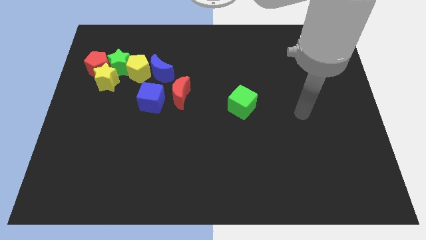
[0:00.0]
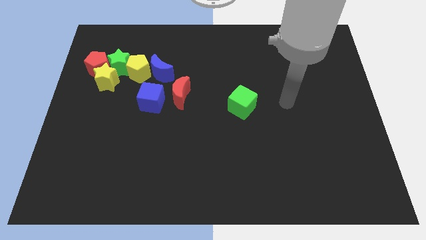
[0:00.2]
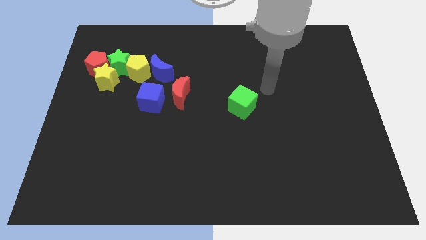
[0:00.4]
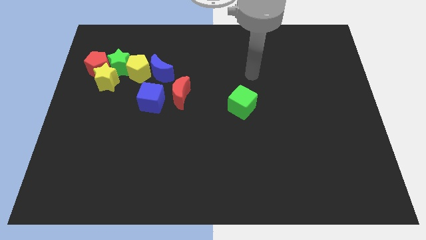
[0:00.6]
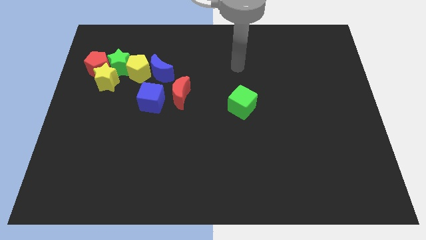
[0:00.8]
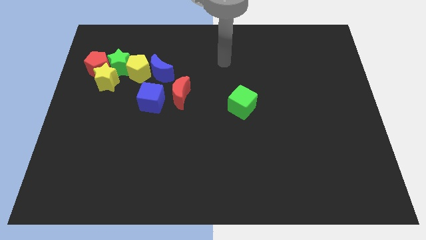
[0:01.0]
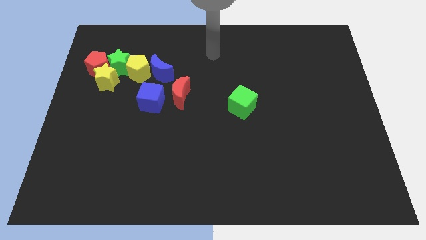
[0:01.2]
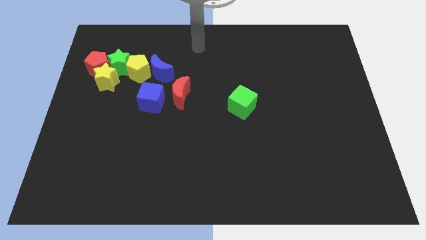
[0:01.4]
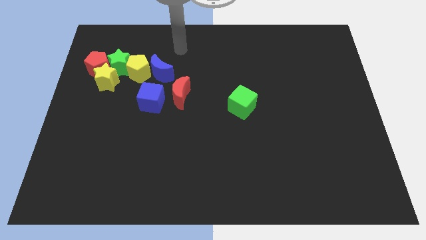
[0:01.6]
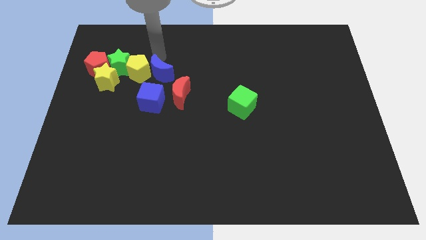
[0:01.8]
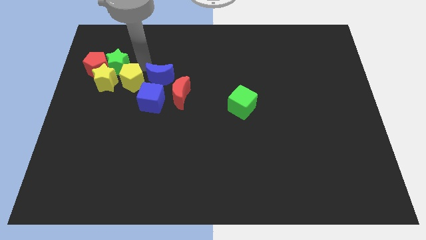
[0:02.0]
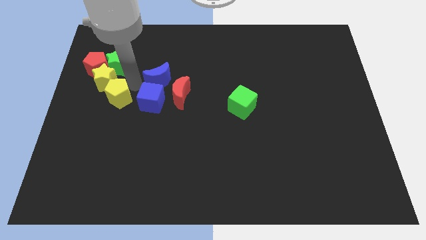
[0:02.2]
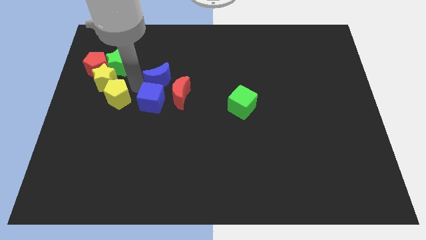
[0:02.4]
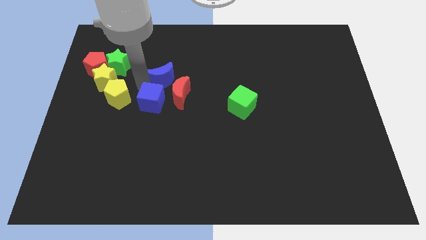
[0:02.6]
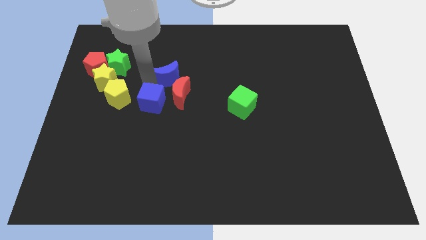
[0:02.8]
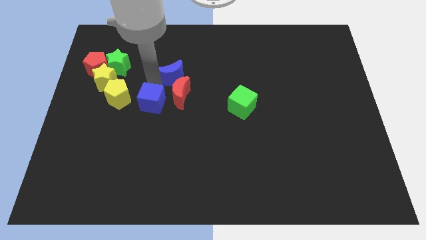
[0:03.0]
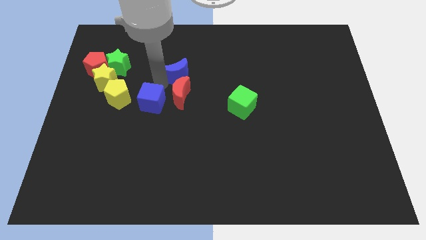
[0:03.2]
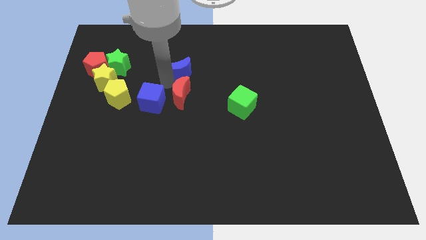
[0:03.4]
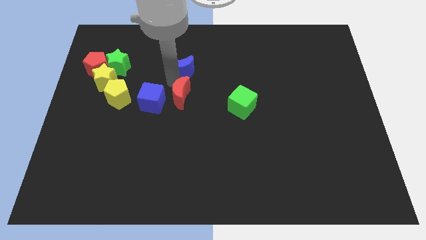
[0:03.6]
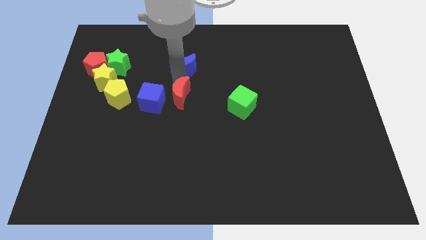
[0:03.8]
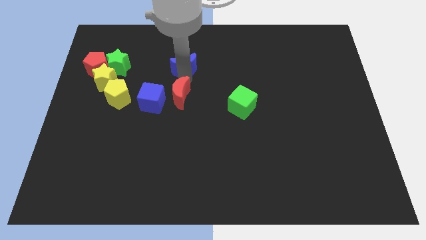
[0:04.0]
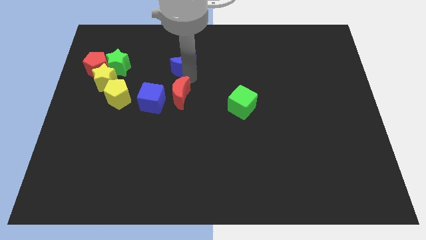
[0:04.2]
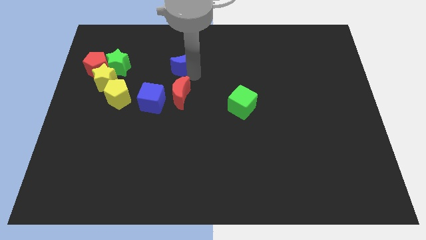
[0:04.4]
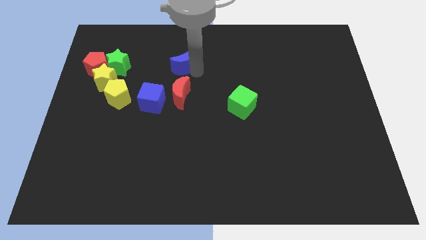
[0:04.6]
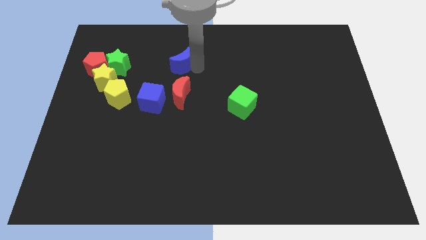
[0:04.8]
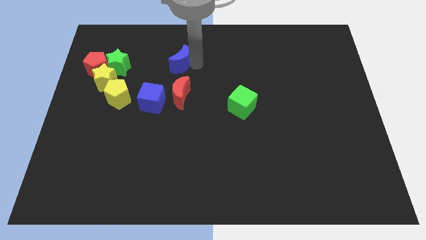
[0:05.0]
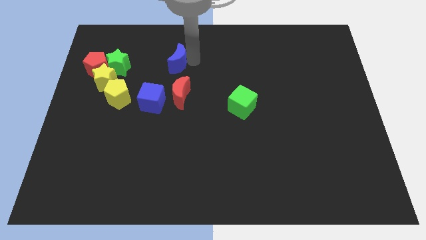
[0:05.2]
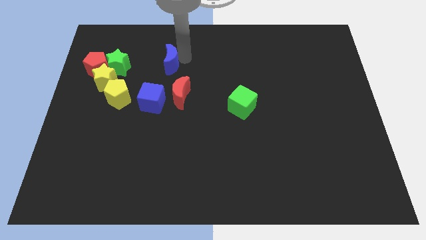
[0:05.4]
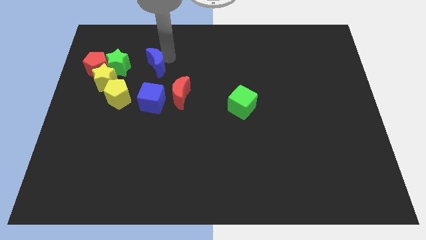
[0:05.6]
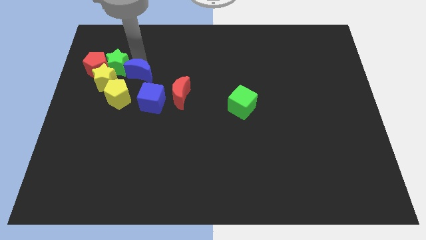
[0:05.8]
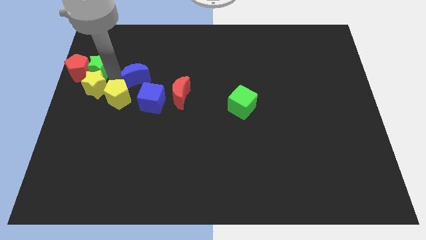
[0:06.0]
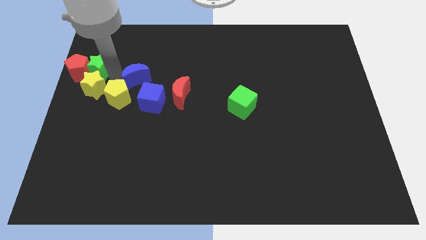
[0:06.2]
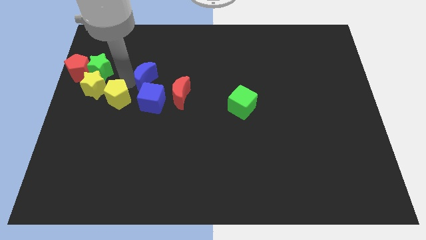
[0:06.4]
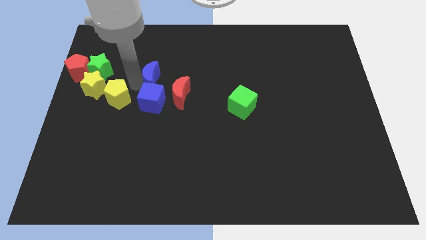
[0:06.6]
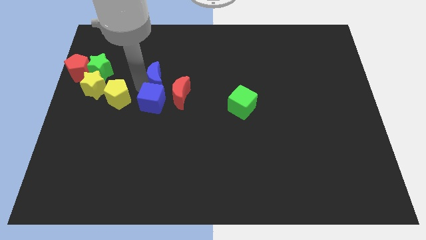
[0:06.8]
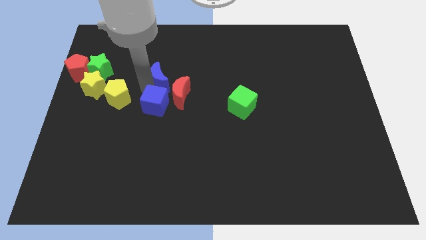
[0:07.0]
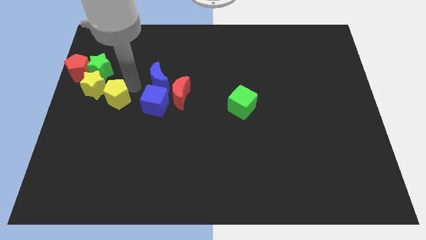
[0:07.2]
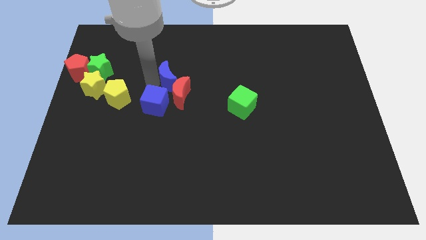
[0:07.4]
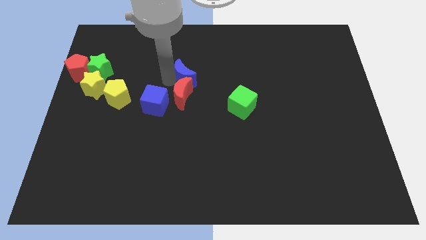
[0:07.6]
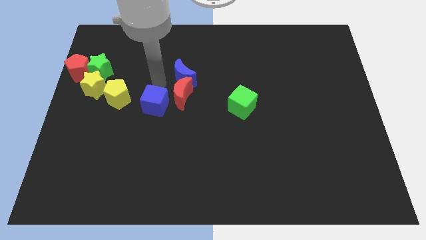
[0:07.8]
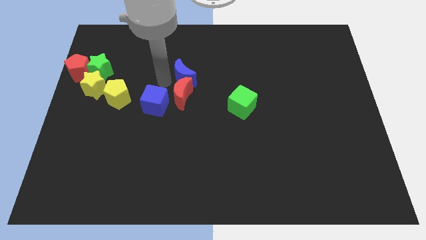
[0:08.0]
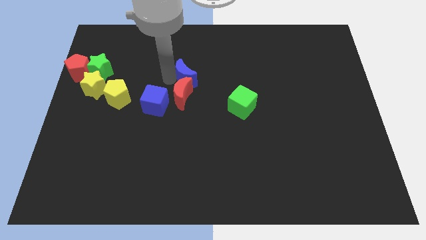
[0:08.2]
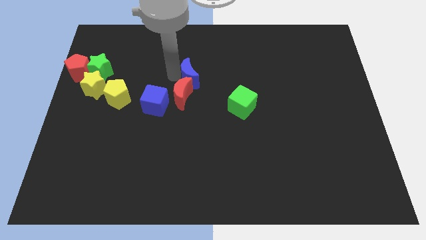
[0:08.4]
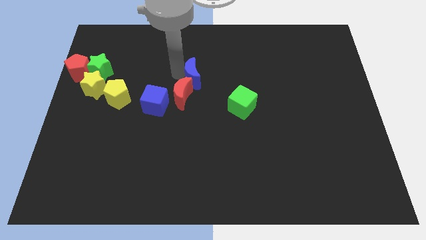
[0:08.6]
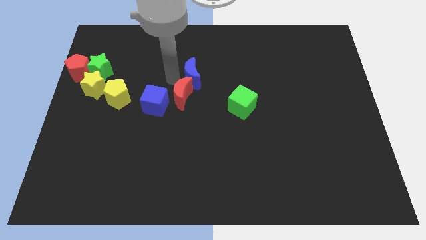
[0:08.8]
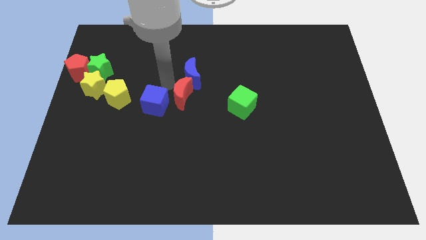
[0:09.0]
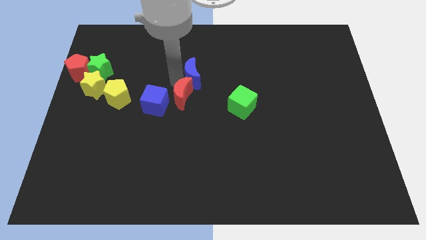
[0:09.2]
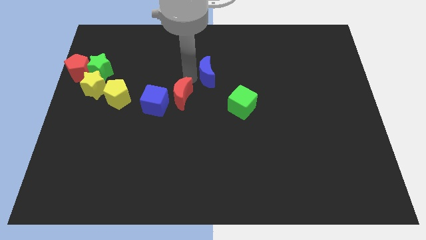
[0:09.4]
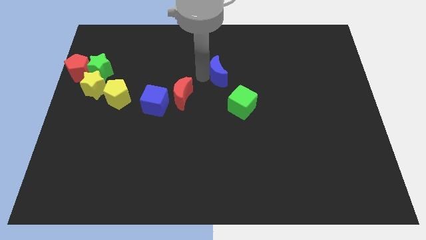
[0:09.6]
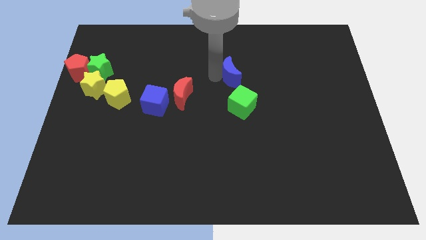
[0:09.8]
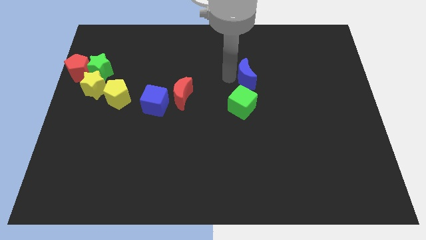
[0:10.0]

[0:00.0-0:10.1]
slide the blue moon right

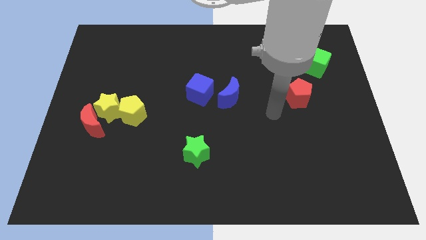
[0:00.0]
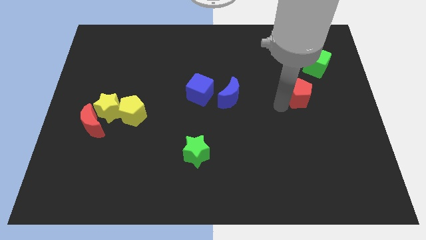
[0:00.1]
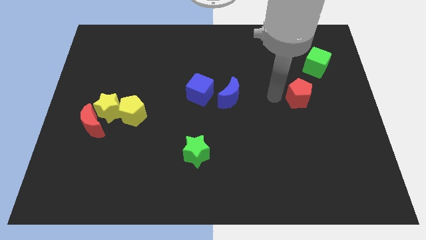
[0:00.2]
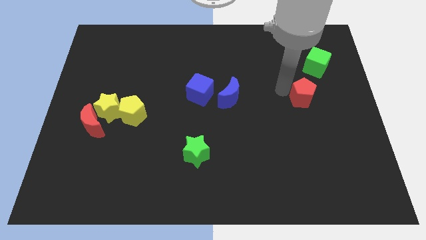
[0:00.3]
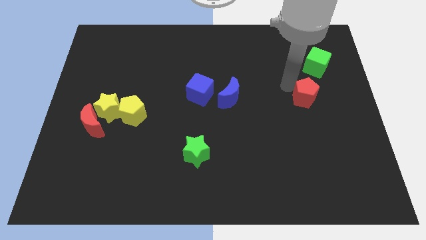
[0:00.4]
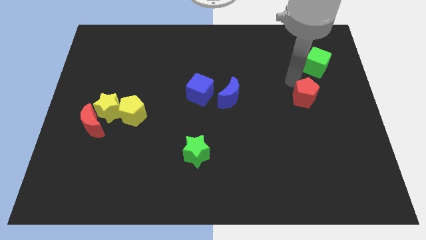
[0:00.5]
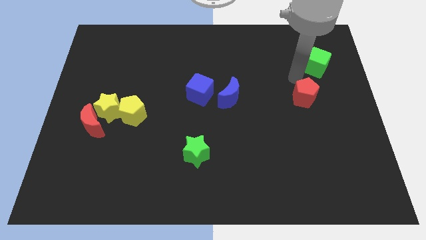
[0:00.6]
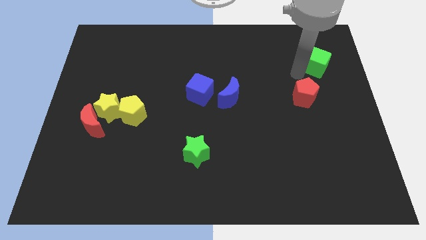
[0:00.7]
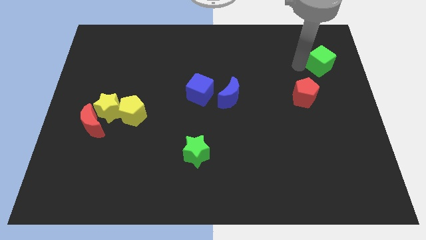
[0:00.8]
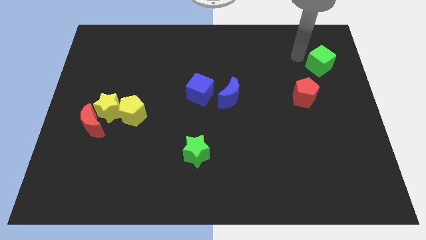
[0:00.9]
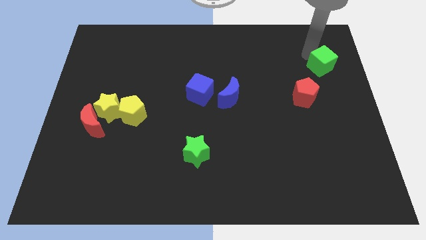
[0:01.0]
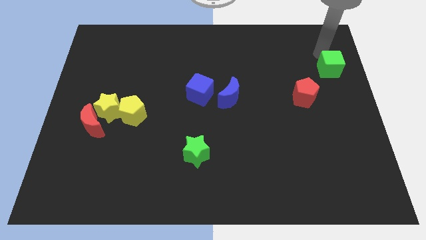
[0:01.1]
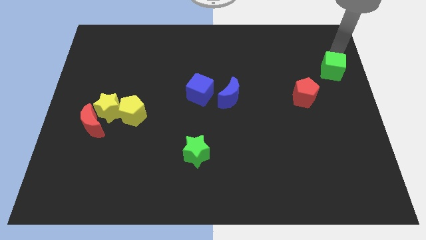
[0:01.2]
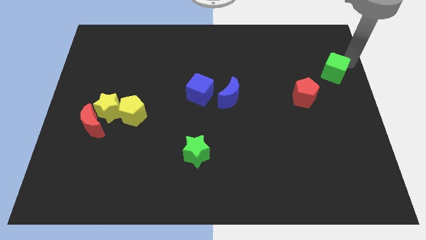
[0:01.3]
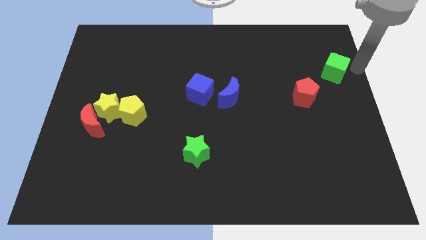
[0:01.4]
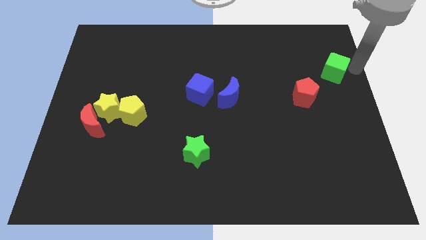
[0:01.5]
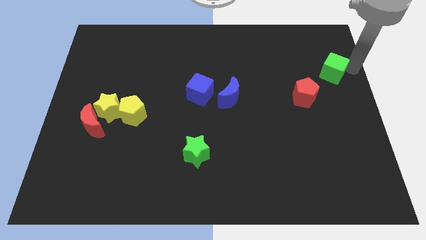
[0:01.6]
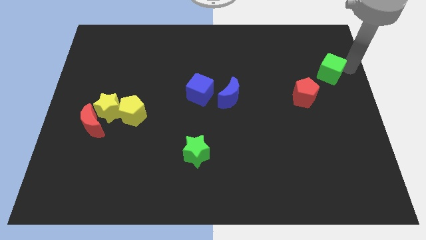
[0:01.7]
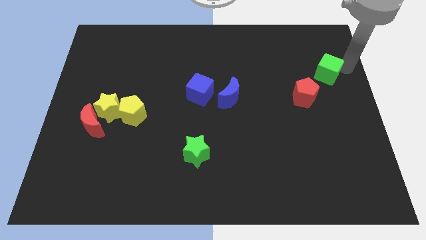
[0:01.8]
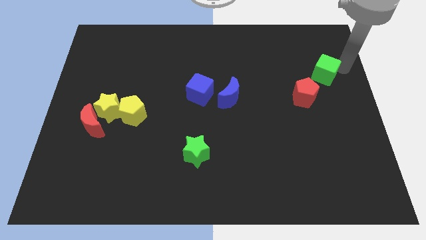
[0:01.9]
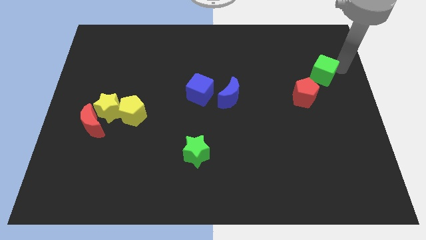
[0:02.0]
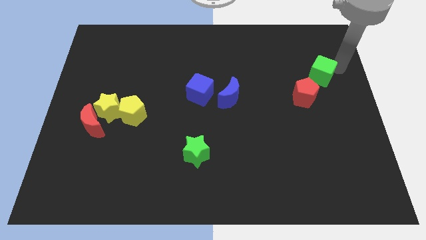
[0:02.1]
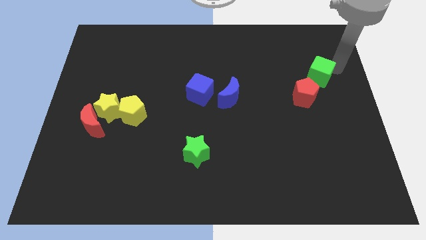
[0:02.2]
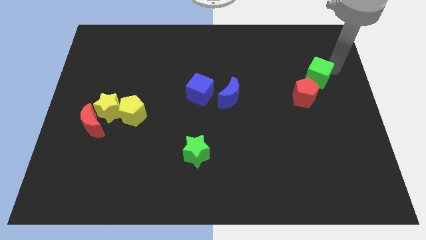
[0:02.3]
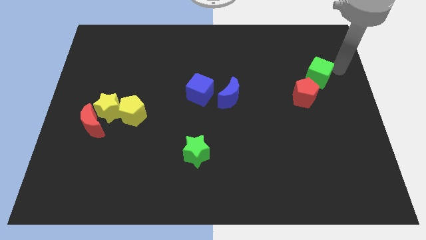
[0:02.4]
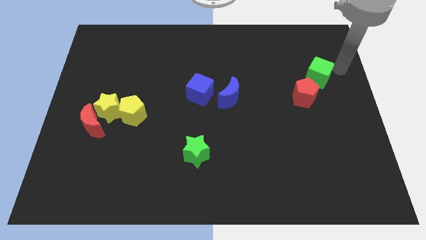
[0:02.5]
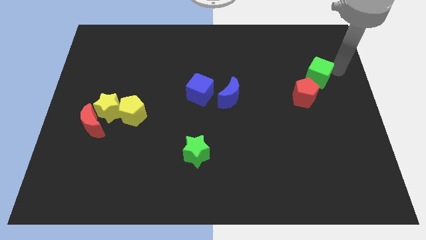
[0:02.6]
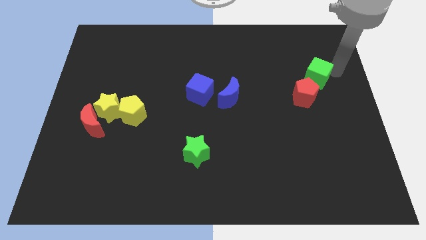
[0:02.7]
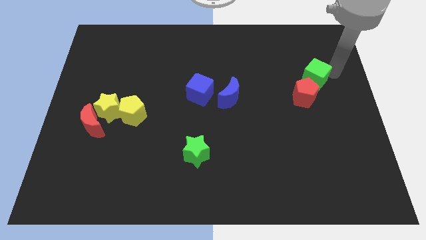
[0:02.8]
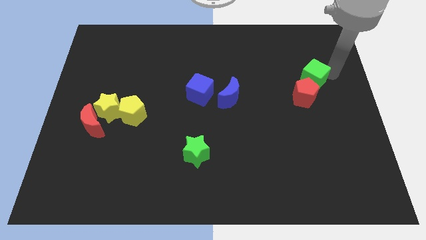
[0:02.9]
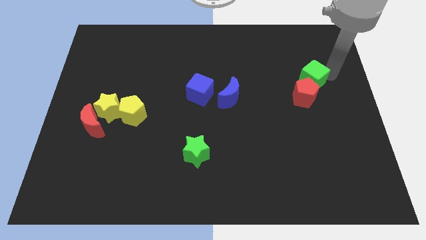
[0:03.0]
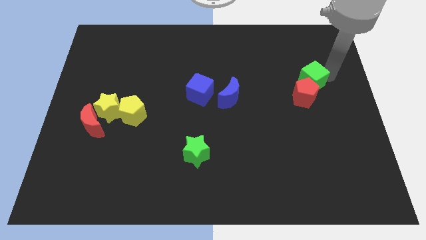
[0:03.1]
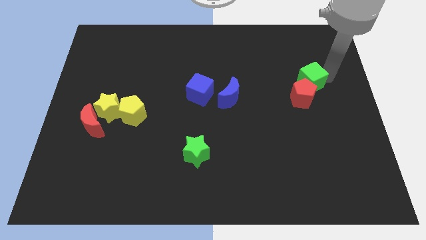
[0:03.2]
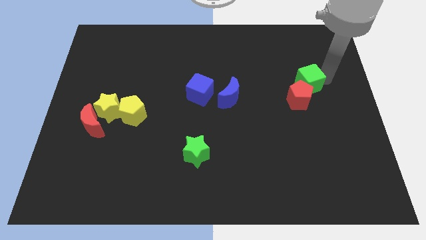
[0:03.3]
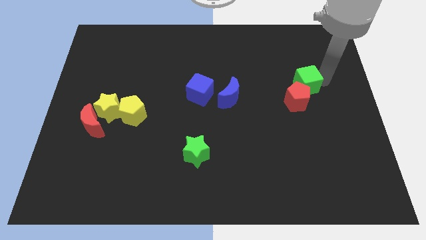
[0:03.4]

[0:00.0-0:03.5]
slightly slide the green cube down and then to the left
